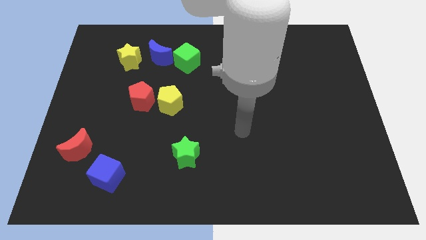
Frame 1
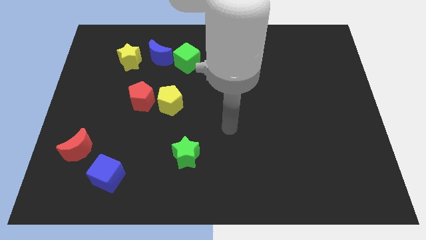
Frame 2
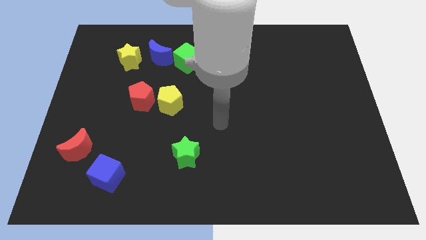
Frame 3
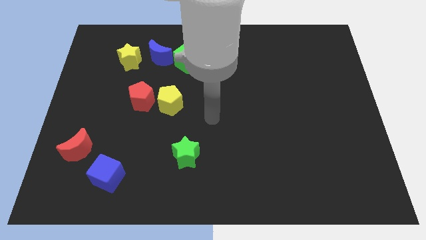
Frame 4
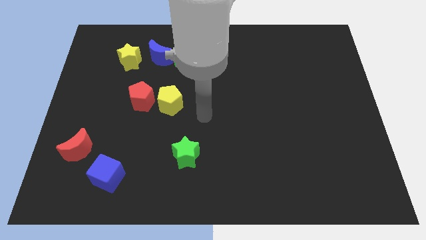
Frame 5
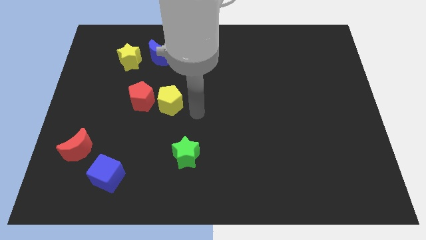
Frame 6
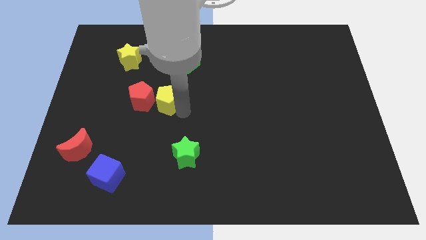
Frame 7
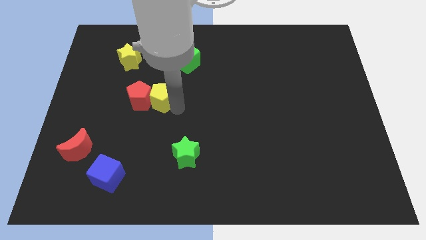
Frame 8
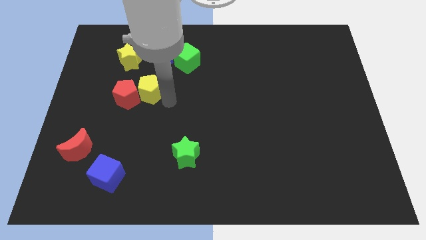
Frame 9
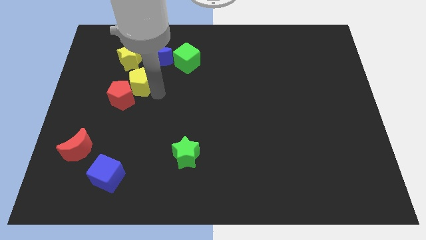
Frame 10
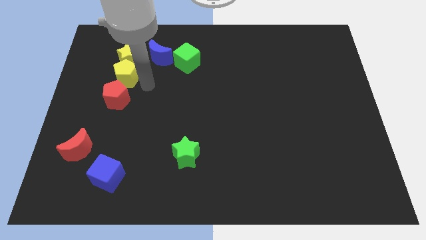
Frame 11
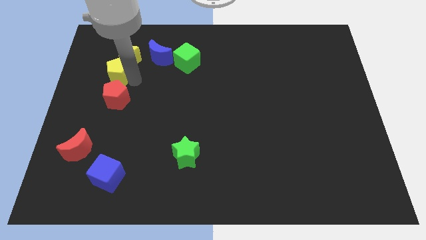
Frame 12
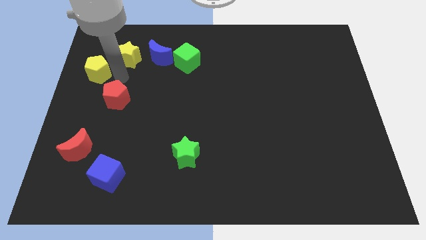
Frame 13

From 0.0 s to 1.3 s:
move the red pentagon away from the yellow pentagon

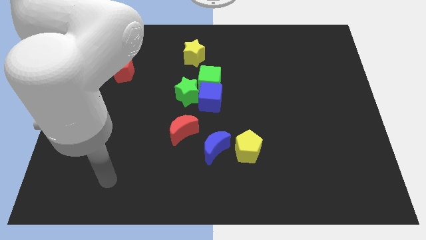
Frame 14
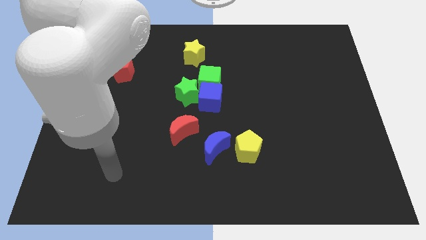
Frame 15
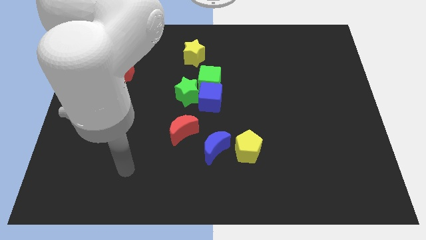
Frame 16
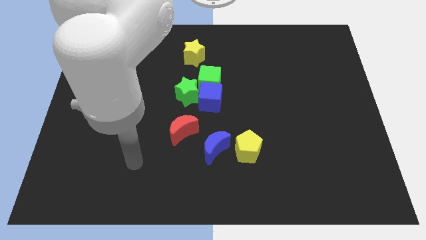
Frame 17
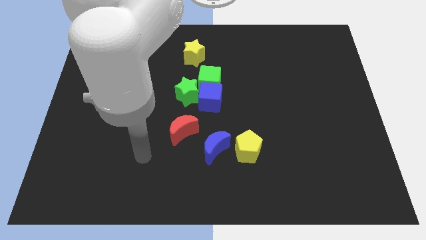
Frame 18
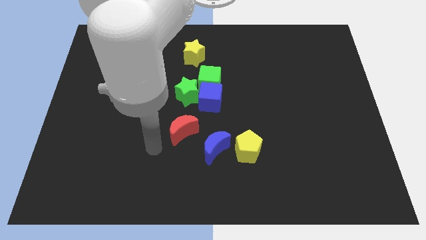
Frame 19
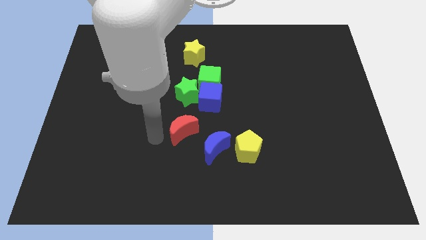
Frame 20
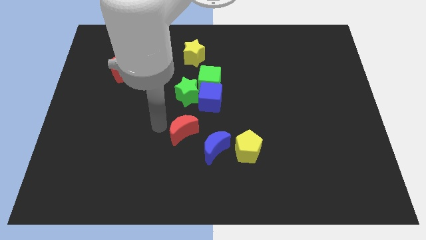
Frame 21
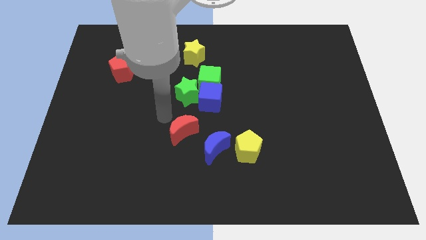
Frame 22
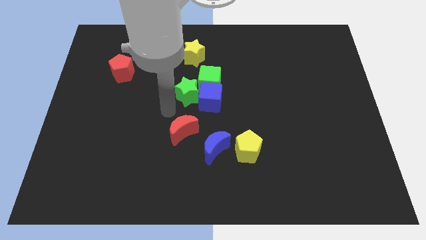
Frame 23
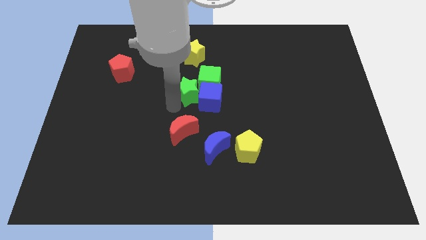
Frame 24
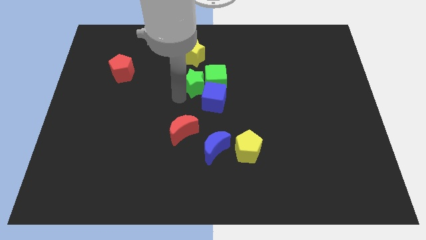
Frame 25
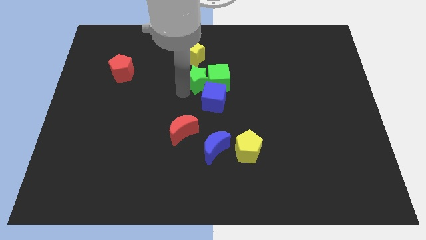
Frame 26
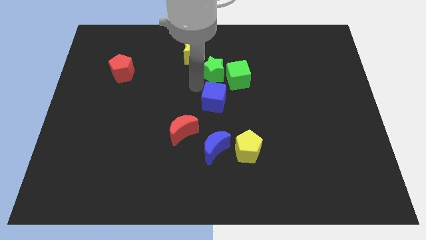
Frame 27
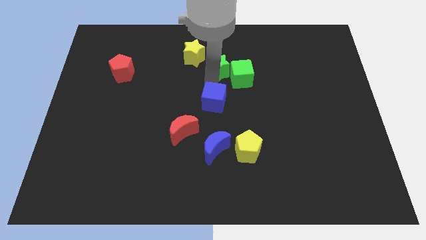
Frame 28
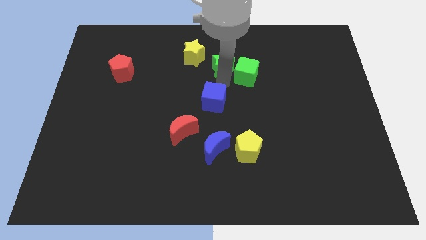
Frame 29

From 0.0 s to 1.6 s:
separate the blue cube from the green cube and green star

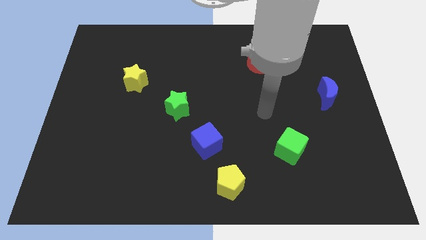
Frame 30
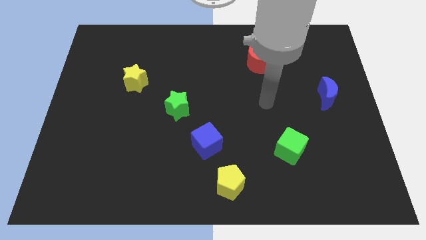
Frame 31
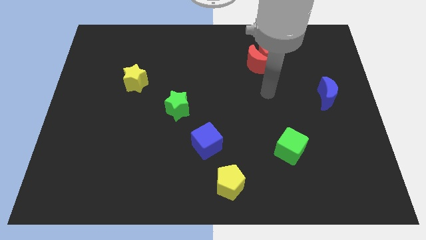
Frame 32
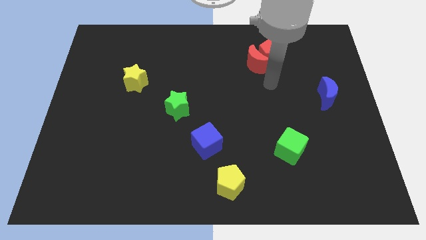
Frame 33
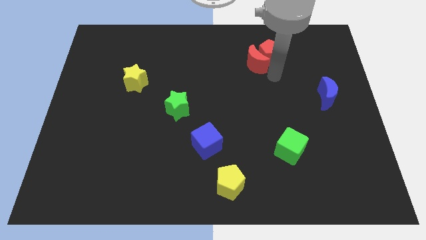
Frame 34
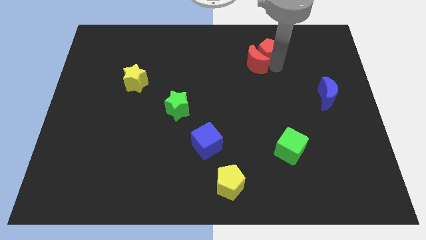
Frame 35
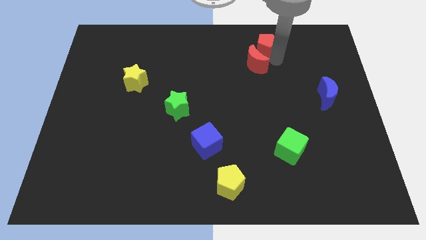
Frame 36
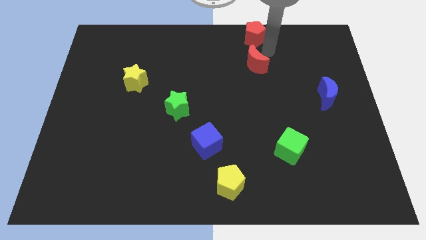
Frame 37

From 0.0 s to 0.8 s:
move the red moon away from the red pentagon

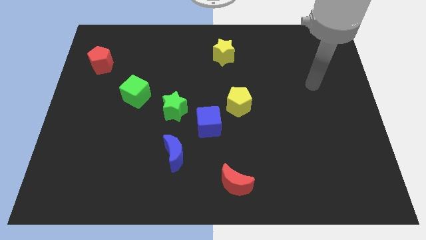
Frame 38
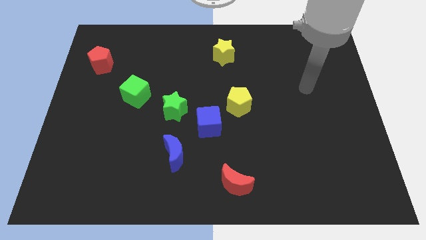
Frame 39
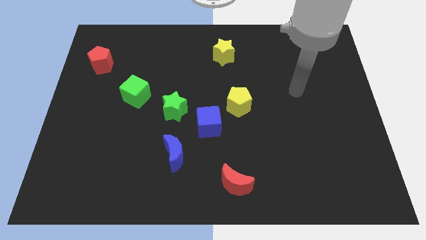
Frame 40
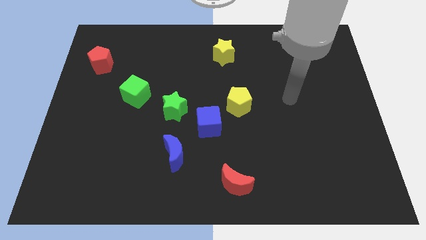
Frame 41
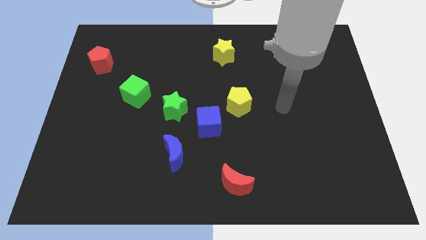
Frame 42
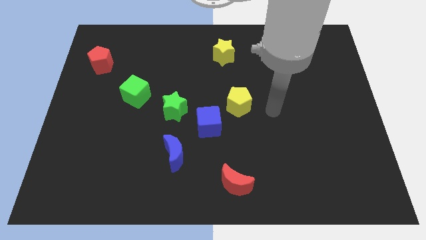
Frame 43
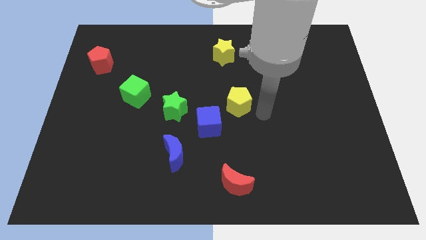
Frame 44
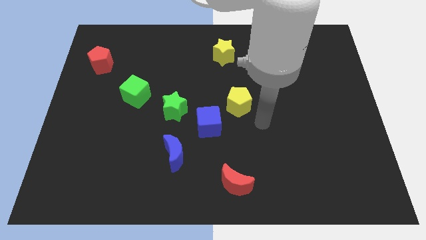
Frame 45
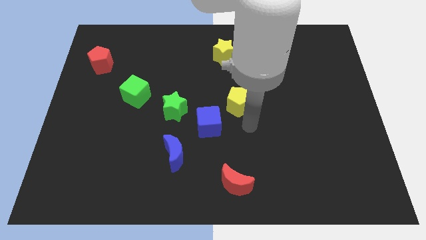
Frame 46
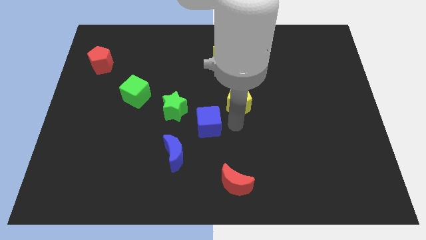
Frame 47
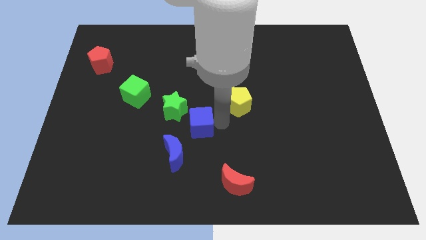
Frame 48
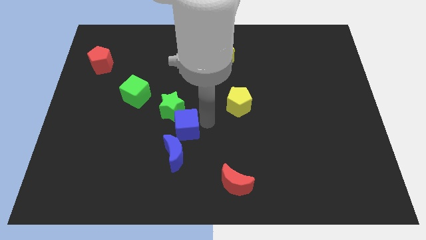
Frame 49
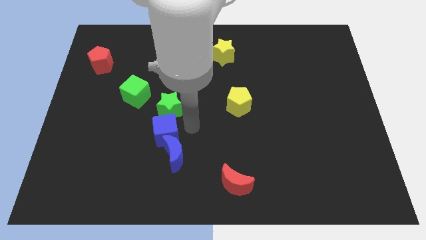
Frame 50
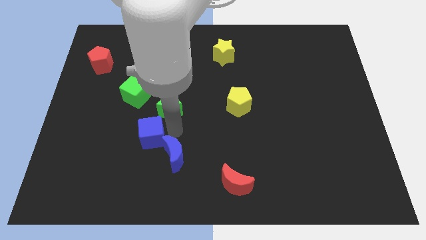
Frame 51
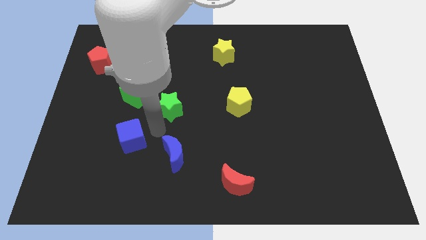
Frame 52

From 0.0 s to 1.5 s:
move the green star away from the blue cube

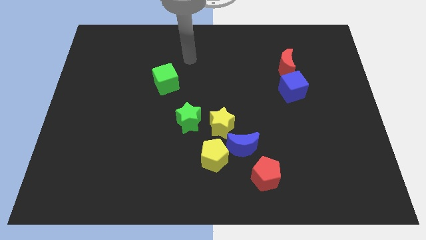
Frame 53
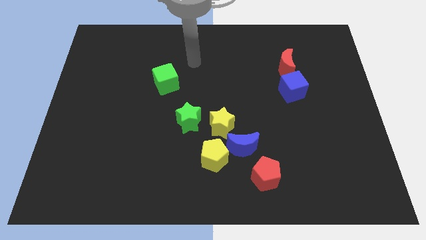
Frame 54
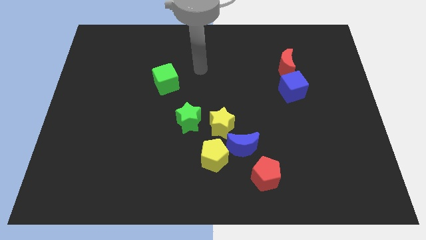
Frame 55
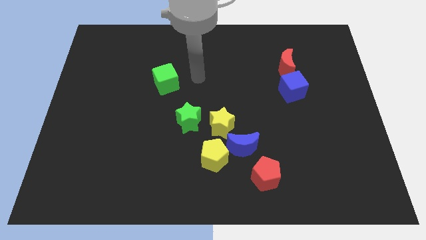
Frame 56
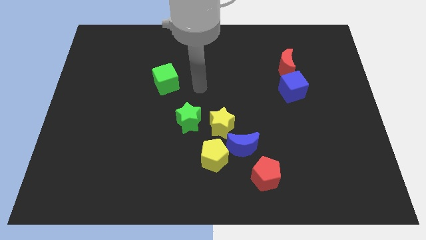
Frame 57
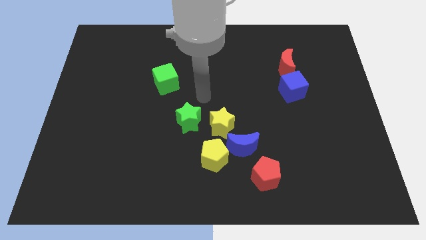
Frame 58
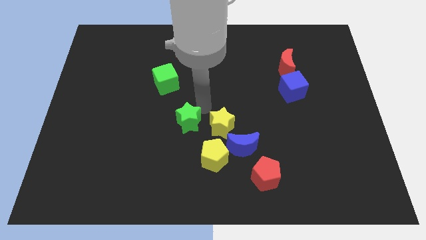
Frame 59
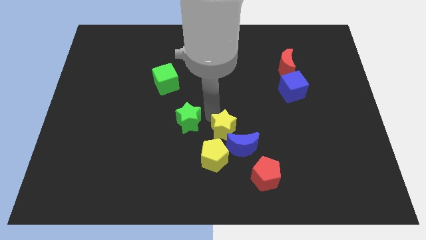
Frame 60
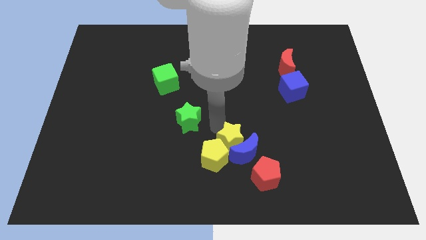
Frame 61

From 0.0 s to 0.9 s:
pull the green star apart from the yellow star

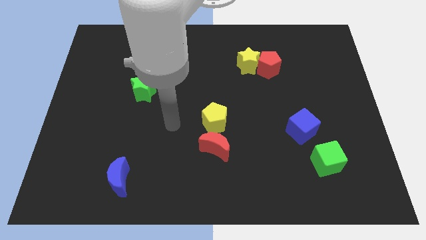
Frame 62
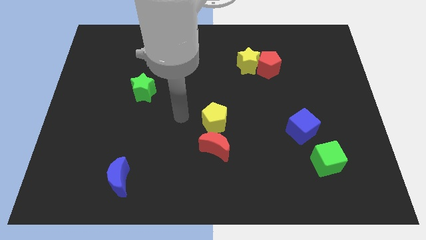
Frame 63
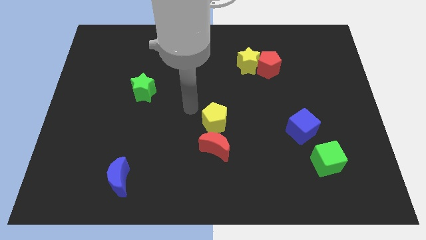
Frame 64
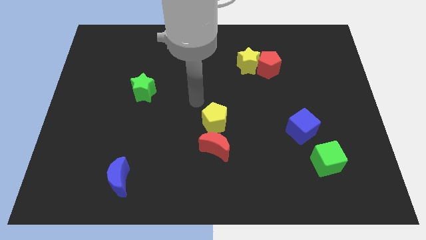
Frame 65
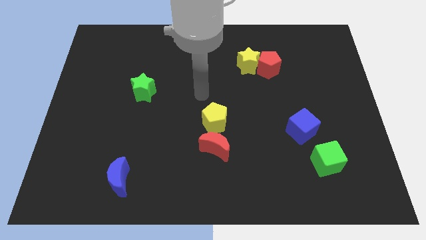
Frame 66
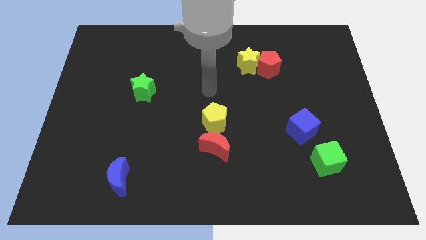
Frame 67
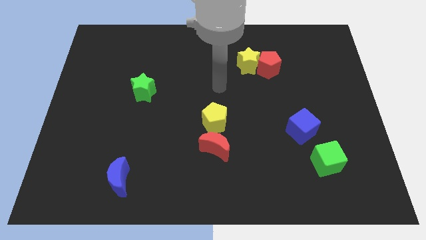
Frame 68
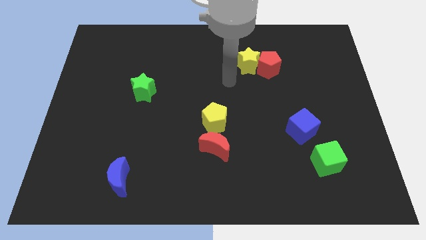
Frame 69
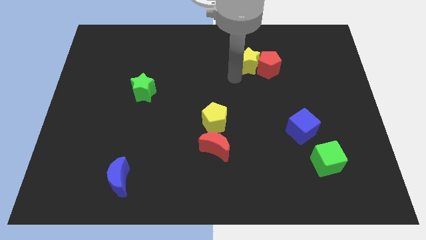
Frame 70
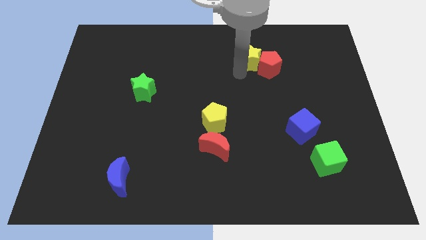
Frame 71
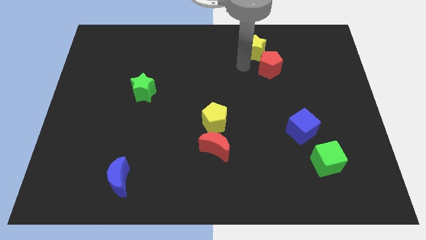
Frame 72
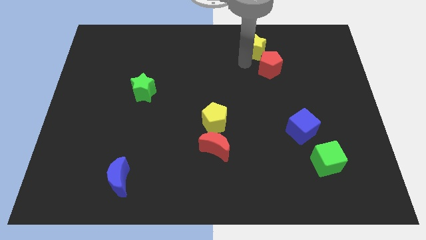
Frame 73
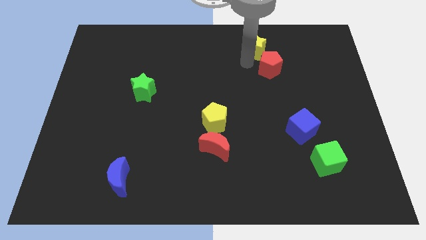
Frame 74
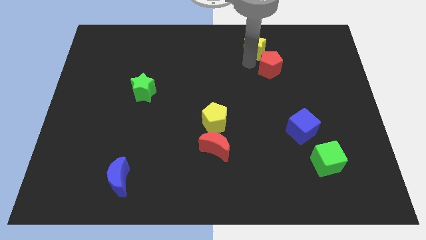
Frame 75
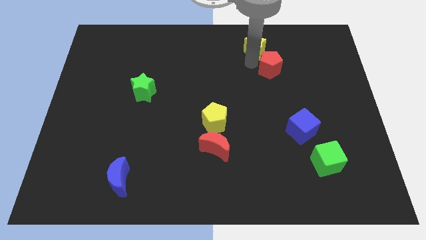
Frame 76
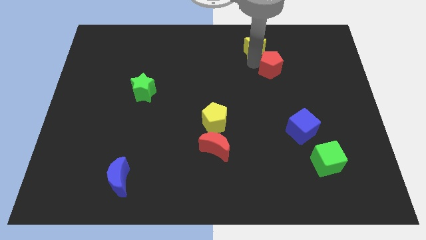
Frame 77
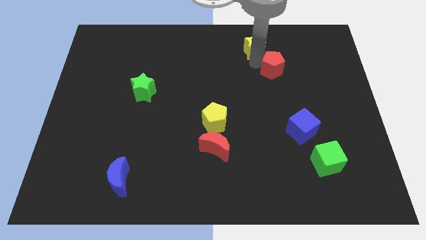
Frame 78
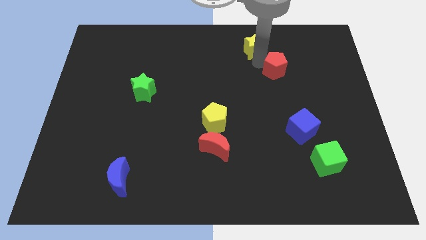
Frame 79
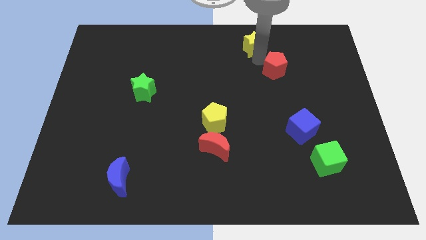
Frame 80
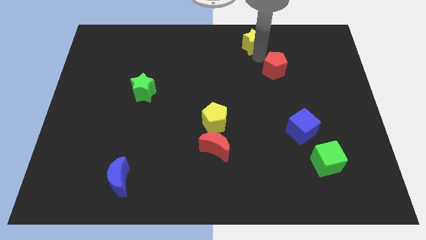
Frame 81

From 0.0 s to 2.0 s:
move the red pentagon away from the yellow star

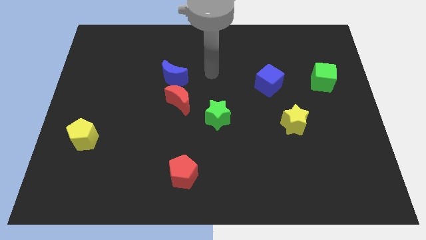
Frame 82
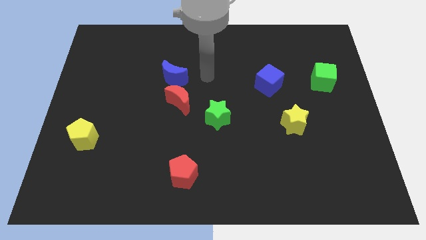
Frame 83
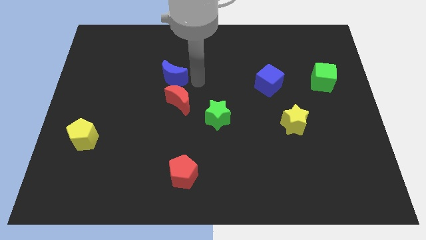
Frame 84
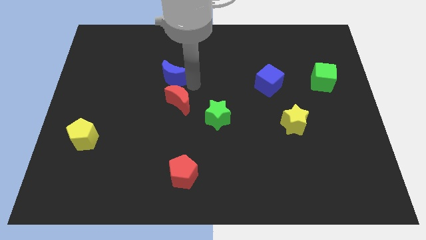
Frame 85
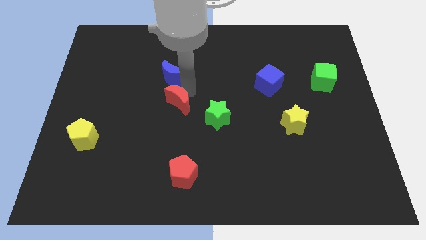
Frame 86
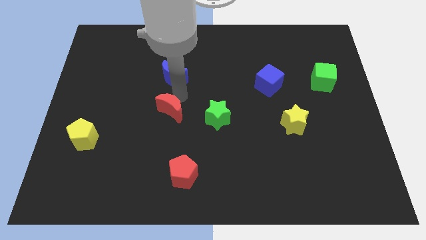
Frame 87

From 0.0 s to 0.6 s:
separate the blue moon from the red moon

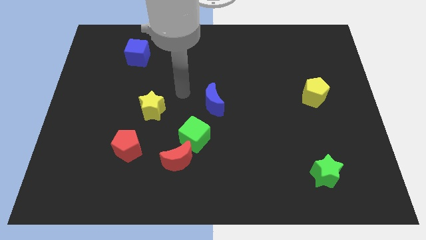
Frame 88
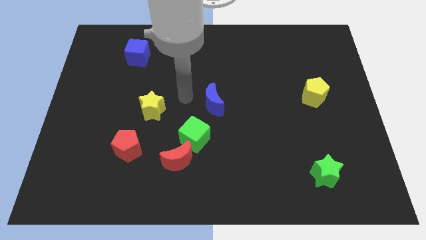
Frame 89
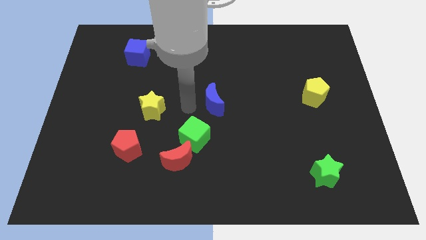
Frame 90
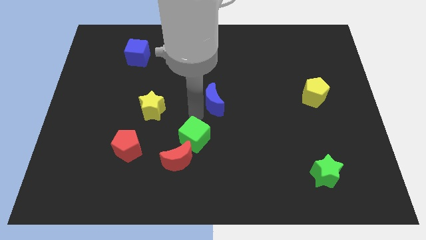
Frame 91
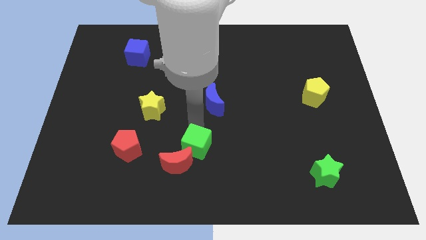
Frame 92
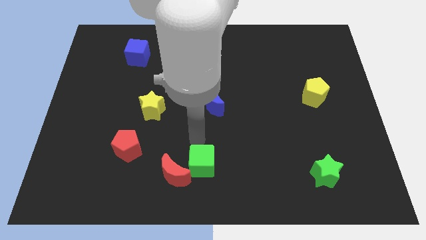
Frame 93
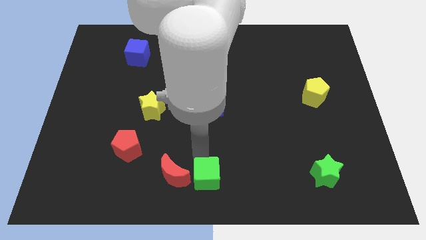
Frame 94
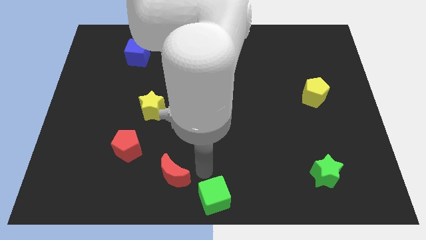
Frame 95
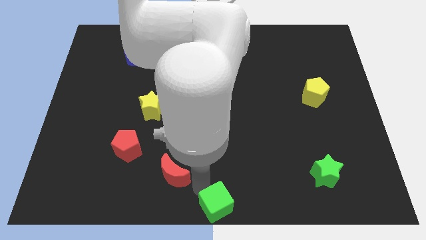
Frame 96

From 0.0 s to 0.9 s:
separate the red moon from the green cube
